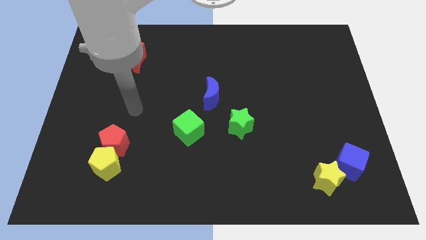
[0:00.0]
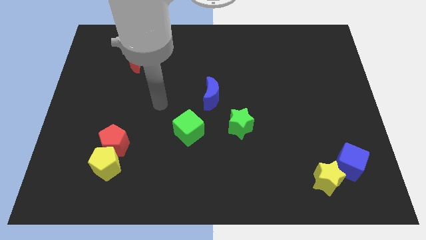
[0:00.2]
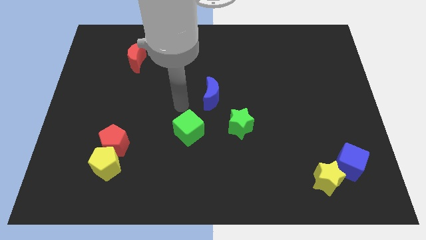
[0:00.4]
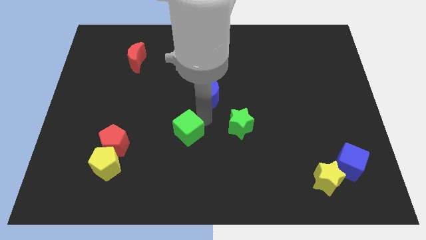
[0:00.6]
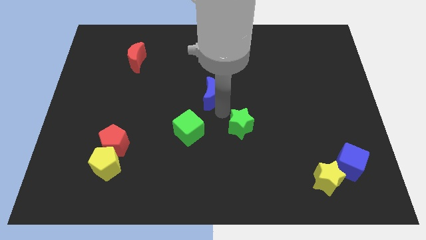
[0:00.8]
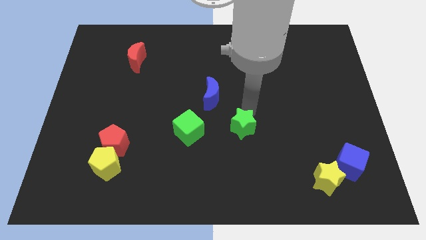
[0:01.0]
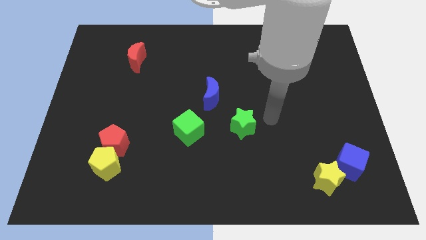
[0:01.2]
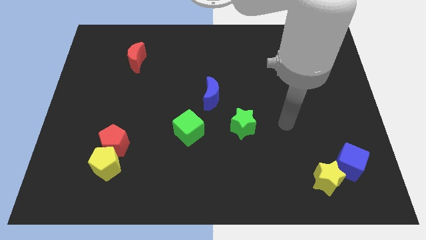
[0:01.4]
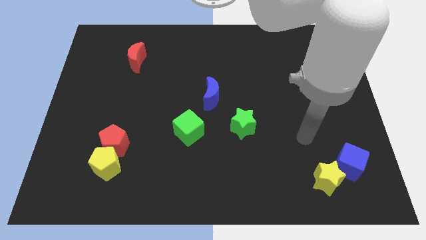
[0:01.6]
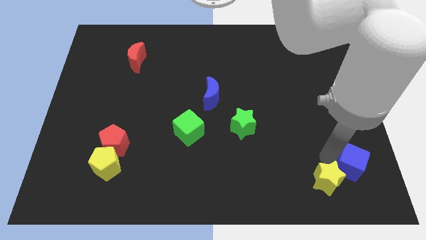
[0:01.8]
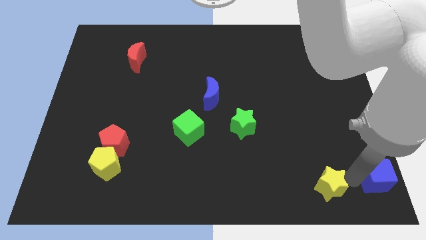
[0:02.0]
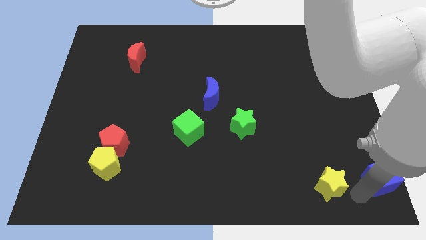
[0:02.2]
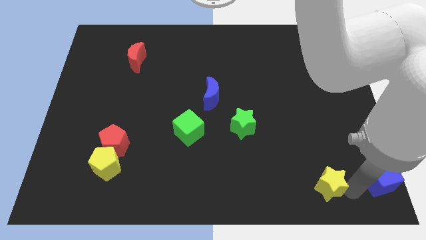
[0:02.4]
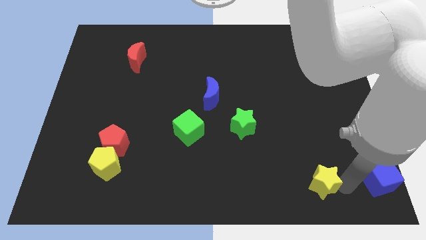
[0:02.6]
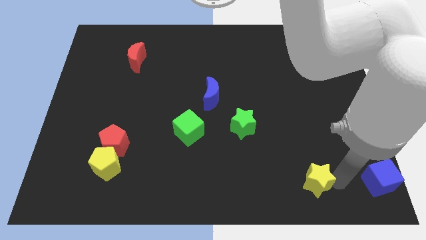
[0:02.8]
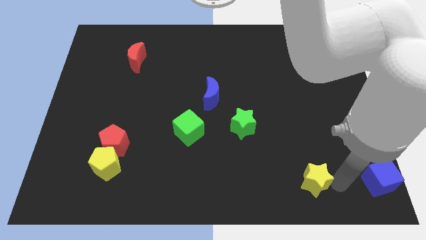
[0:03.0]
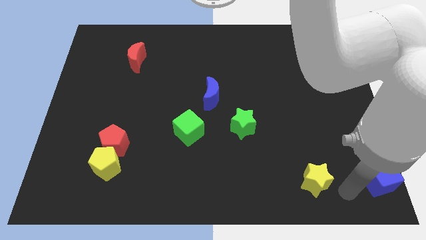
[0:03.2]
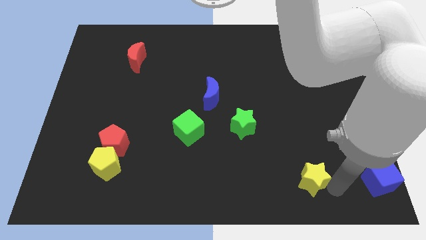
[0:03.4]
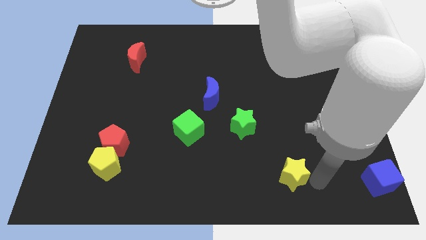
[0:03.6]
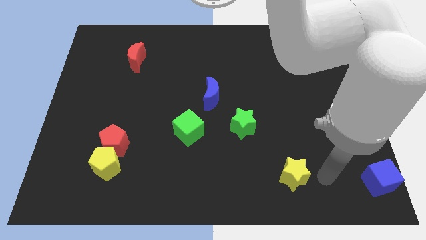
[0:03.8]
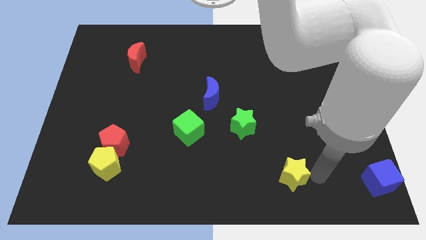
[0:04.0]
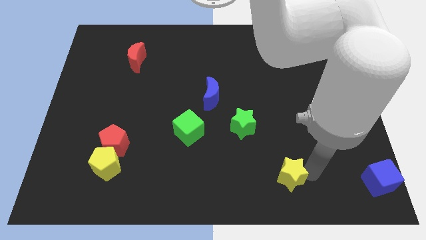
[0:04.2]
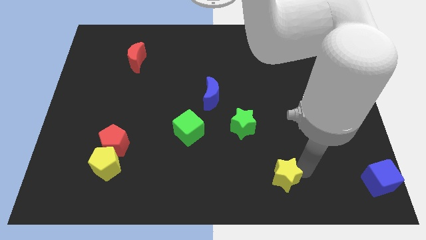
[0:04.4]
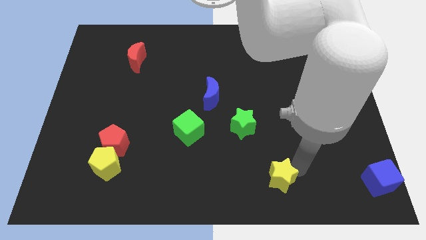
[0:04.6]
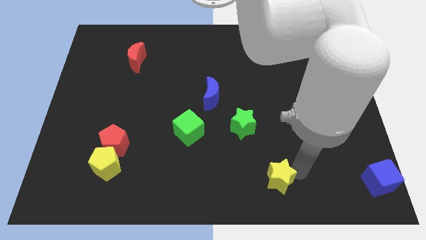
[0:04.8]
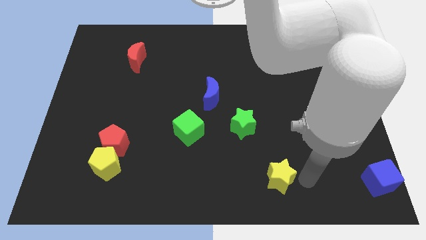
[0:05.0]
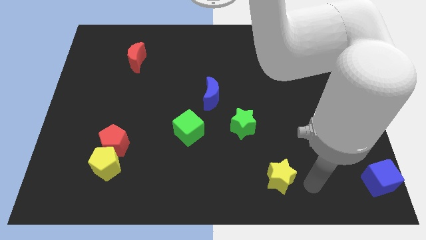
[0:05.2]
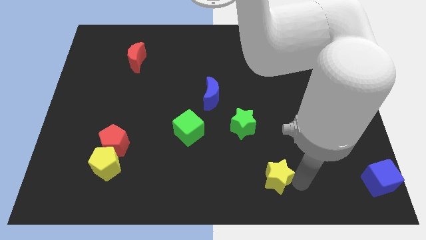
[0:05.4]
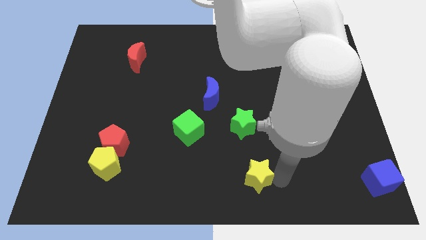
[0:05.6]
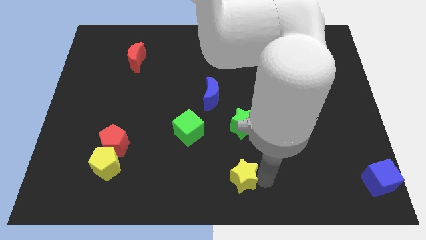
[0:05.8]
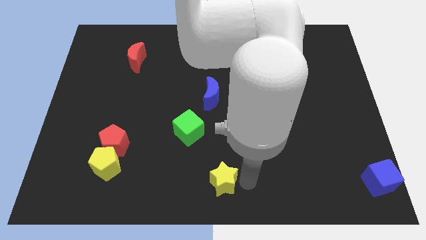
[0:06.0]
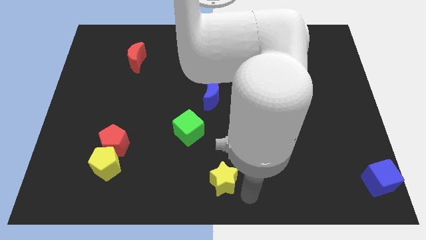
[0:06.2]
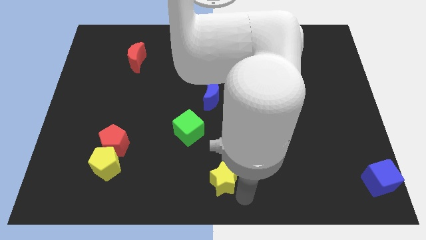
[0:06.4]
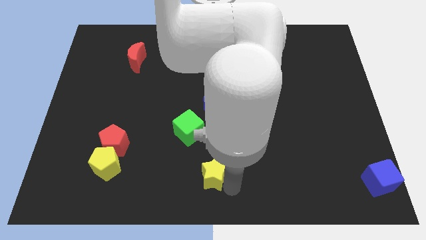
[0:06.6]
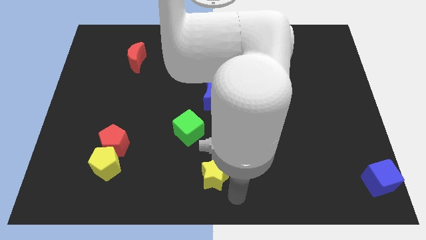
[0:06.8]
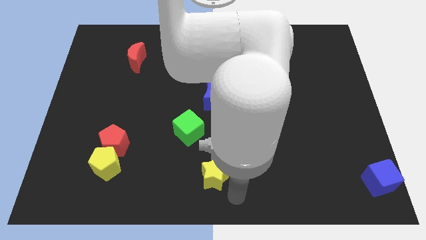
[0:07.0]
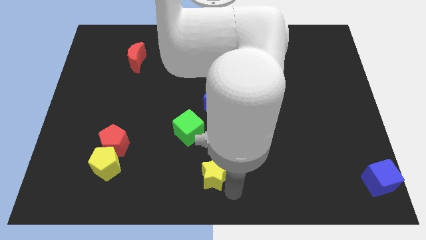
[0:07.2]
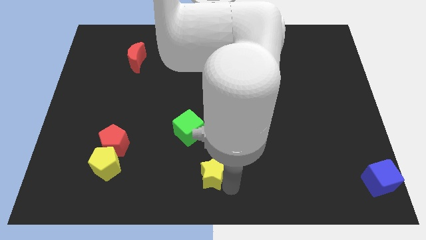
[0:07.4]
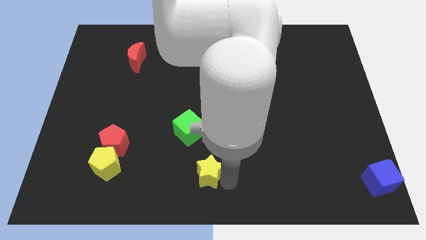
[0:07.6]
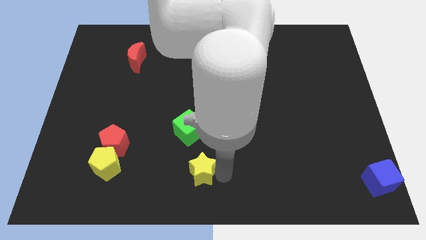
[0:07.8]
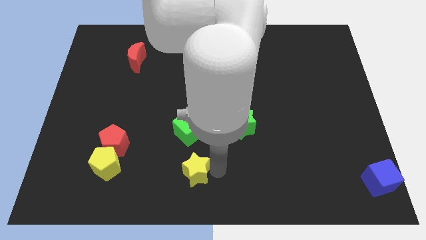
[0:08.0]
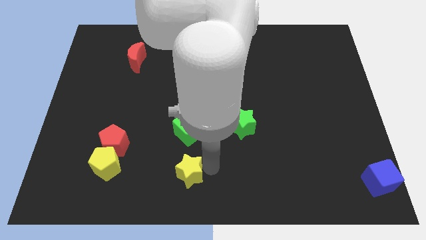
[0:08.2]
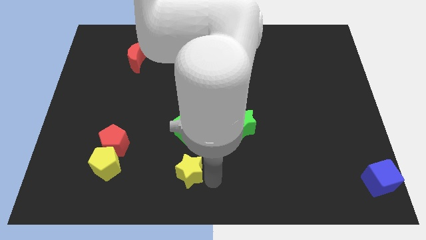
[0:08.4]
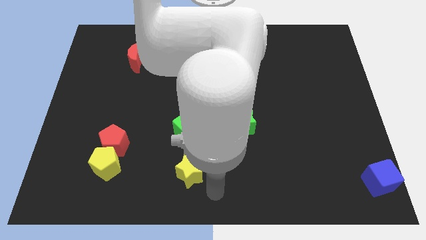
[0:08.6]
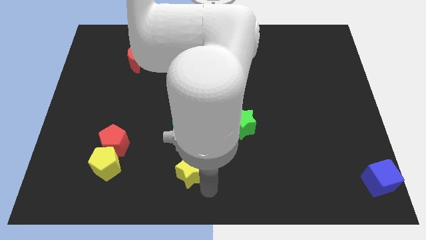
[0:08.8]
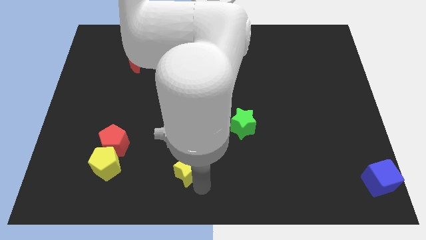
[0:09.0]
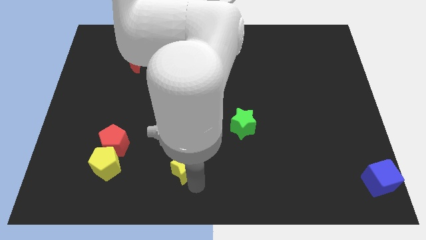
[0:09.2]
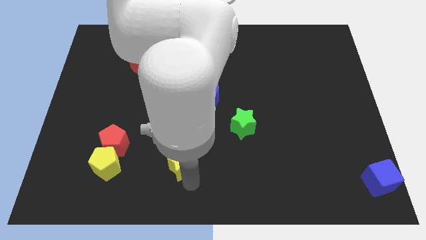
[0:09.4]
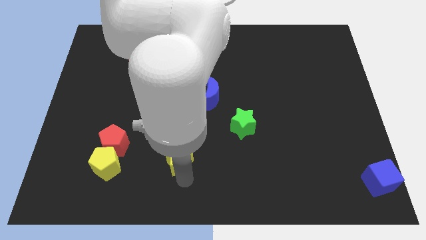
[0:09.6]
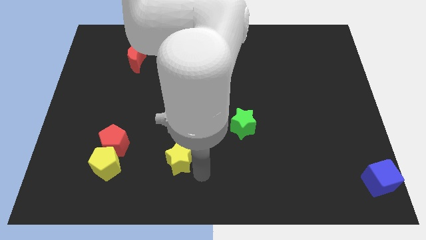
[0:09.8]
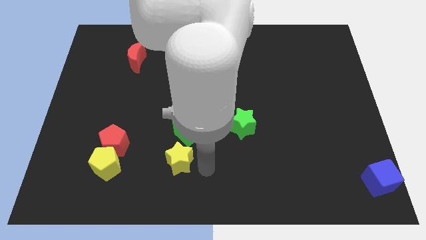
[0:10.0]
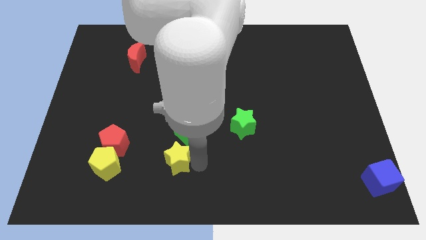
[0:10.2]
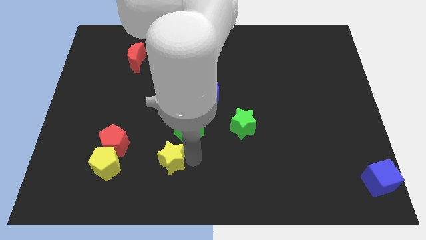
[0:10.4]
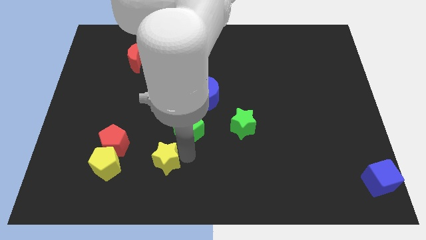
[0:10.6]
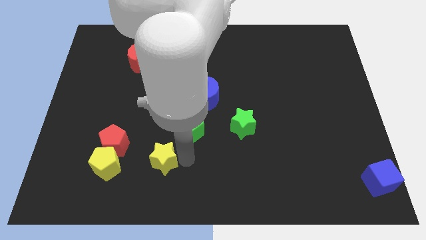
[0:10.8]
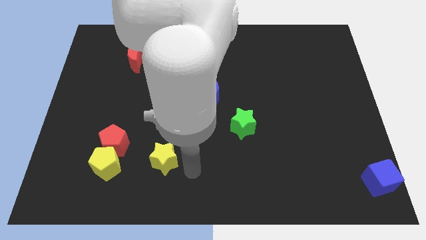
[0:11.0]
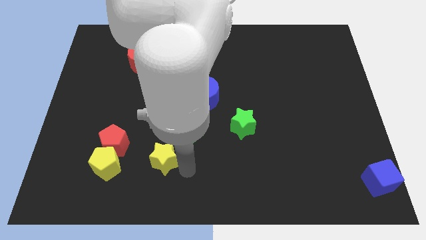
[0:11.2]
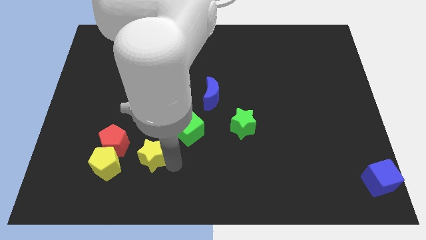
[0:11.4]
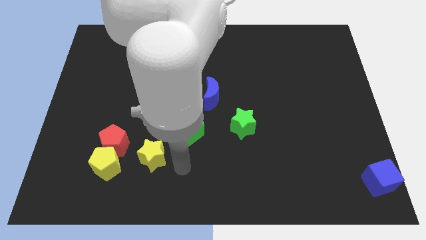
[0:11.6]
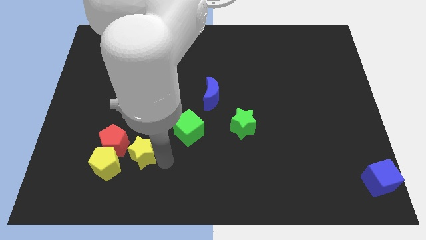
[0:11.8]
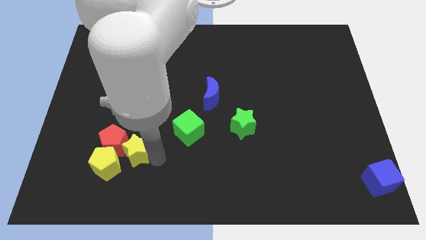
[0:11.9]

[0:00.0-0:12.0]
slide the yellow star close to the red pentagon

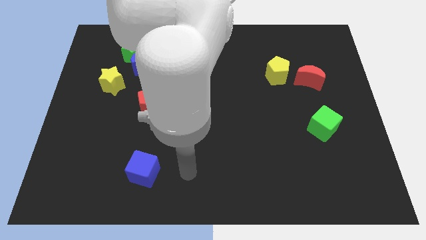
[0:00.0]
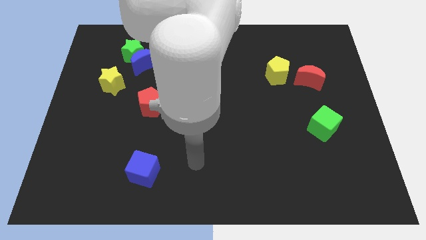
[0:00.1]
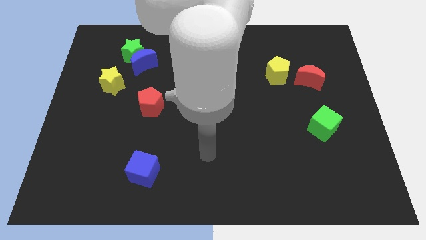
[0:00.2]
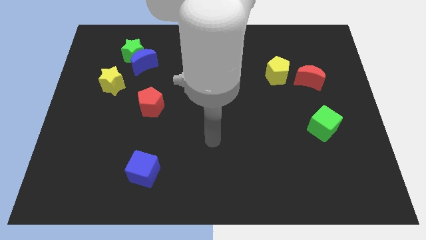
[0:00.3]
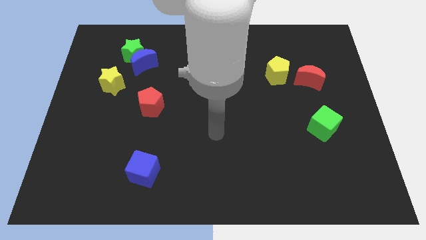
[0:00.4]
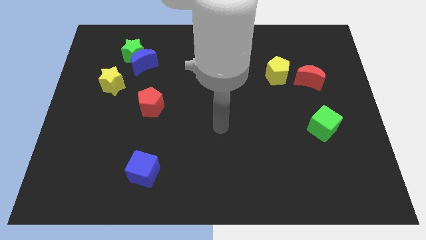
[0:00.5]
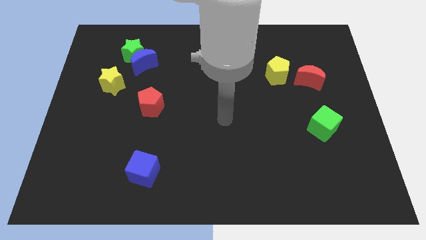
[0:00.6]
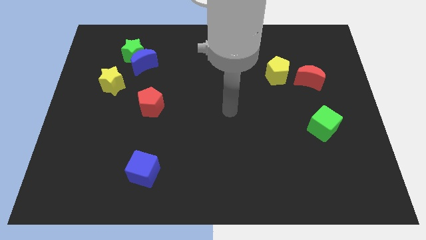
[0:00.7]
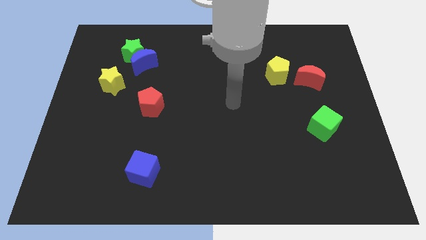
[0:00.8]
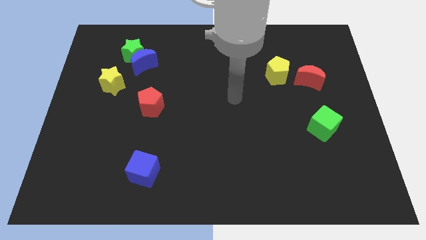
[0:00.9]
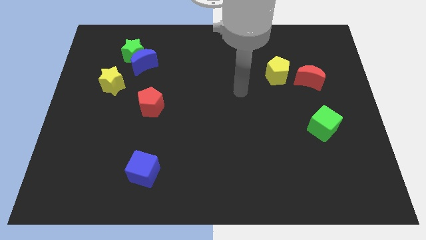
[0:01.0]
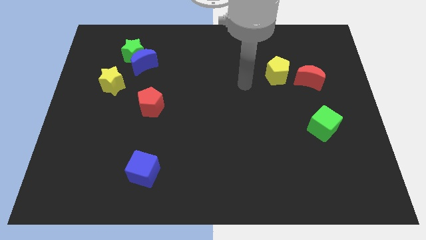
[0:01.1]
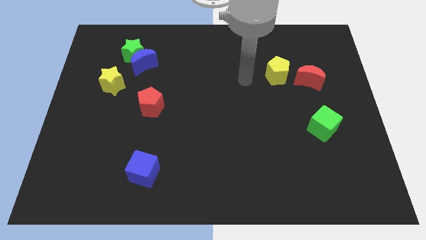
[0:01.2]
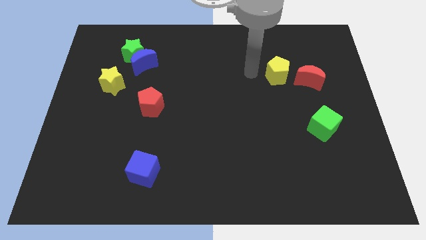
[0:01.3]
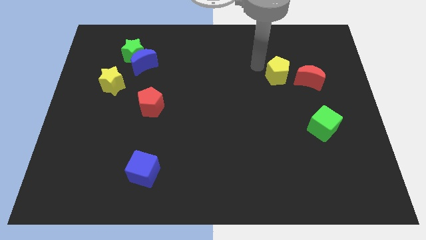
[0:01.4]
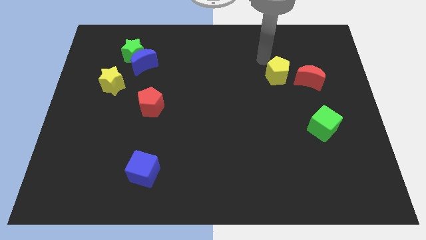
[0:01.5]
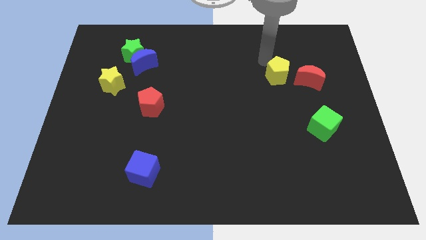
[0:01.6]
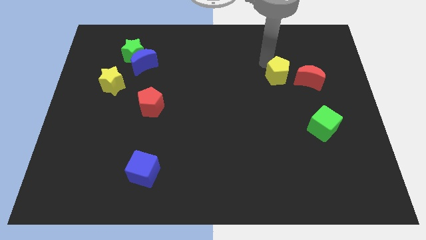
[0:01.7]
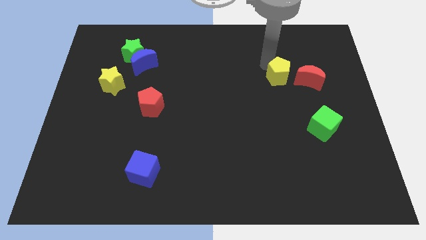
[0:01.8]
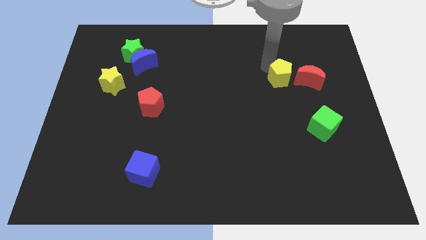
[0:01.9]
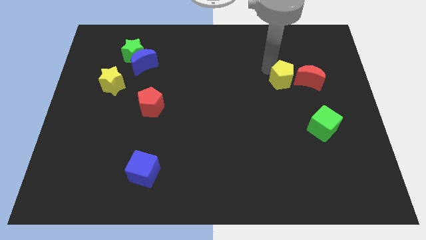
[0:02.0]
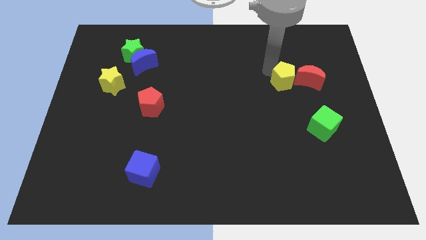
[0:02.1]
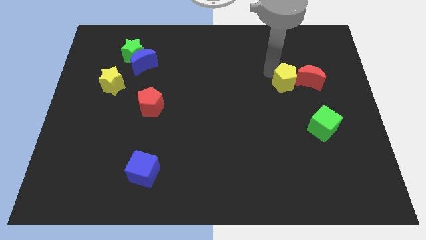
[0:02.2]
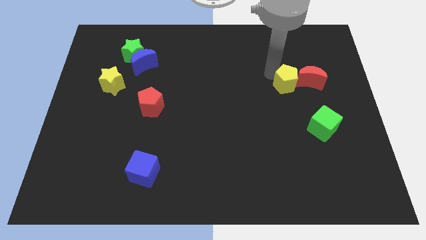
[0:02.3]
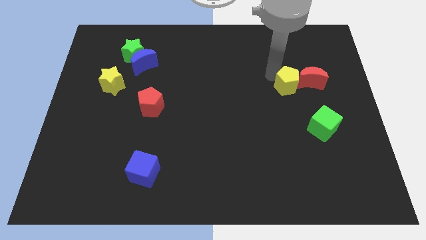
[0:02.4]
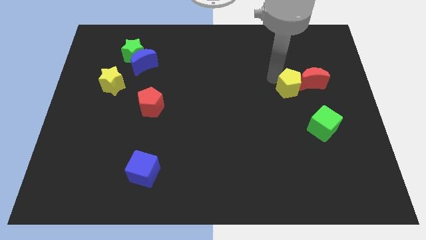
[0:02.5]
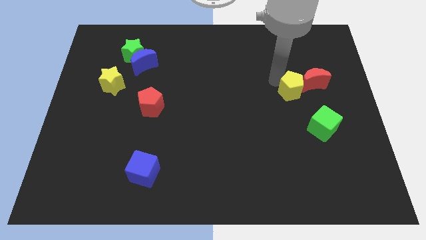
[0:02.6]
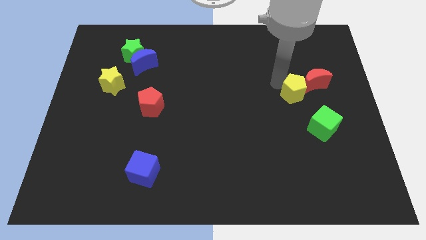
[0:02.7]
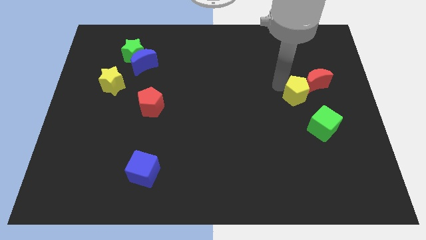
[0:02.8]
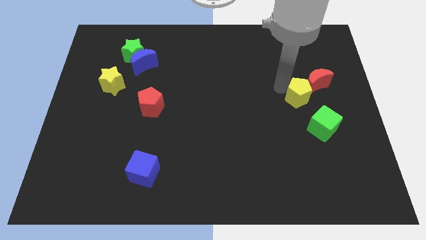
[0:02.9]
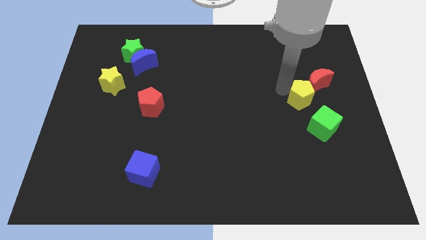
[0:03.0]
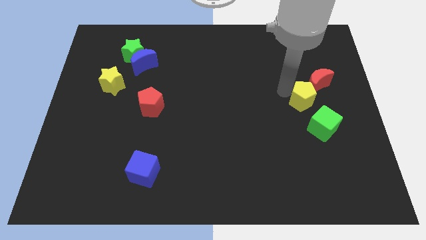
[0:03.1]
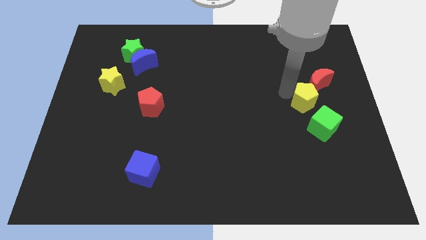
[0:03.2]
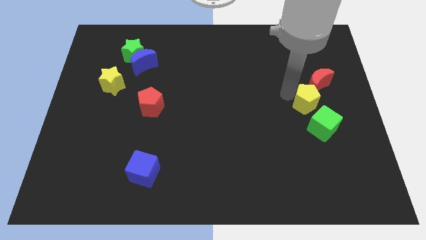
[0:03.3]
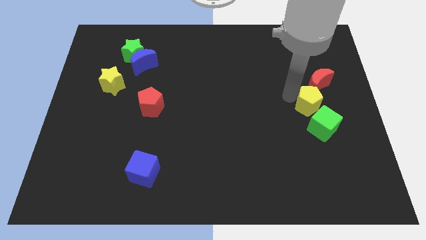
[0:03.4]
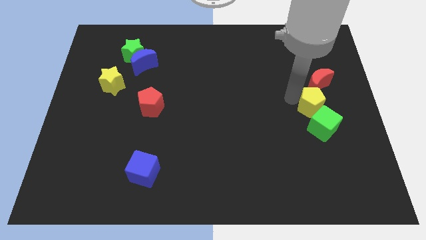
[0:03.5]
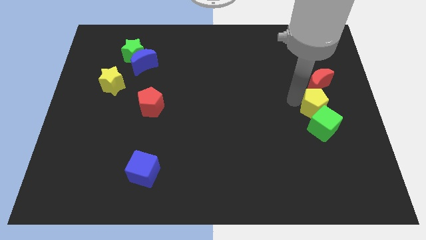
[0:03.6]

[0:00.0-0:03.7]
push the yellow pentagon close to the green cube
